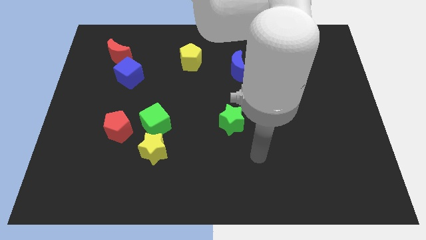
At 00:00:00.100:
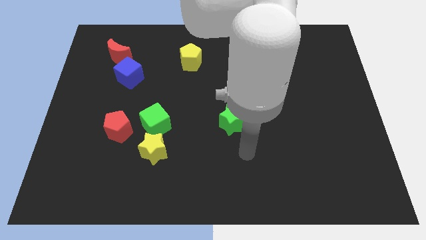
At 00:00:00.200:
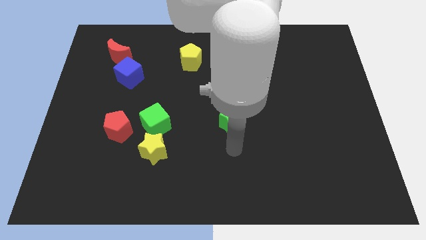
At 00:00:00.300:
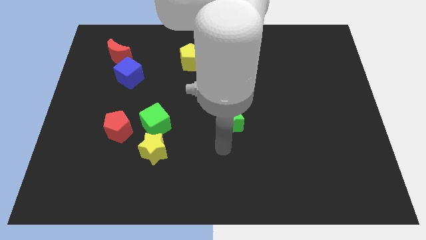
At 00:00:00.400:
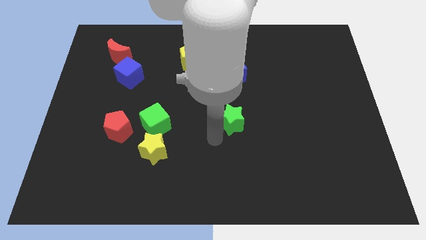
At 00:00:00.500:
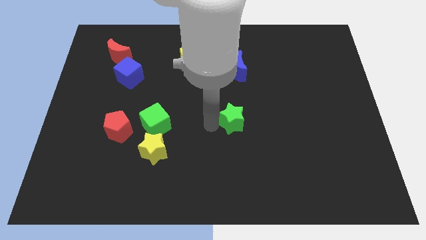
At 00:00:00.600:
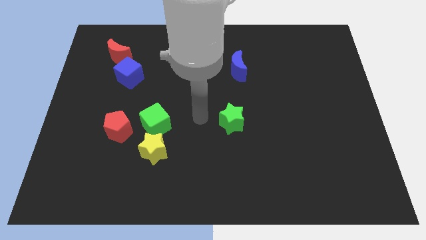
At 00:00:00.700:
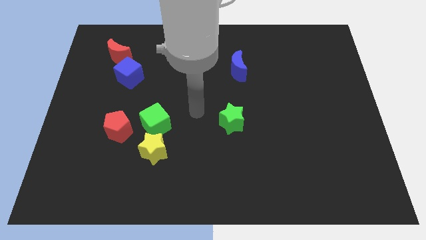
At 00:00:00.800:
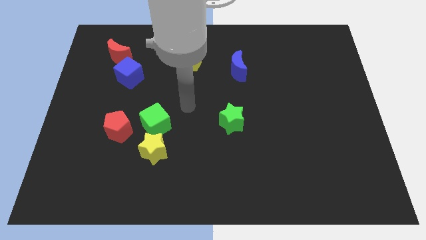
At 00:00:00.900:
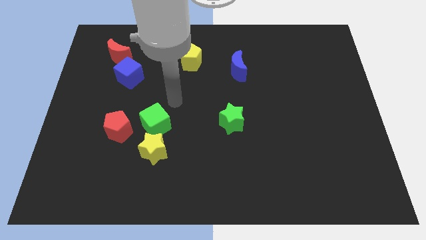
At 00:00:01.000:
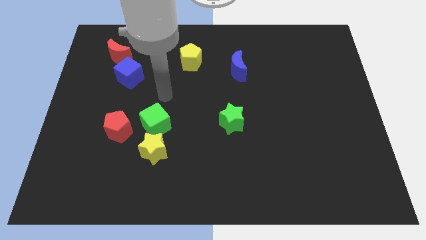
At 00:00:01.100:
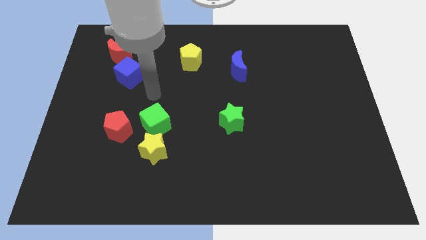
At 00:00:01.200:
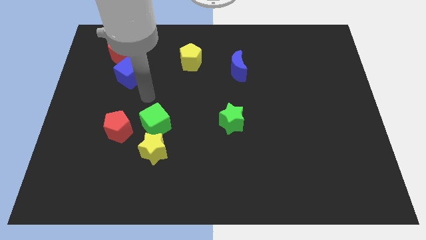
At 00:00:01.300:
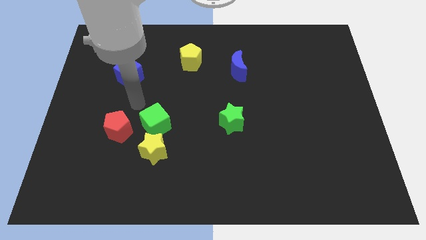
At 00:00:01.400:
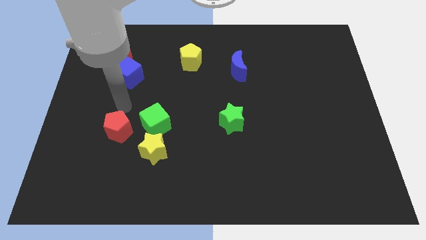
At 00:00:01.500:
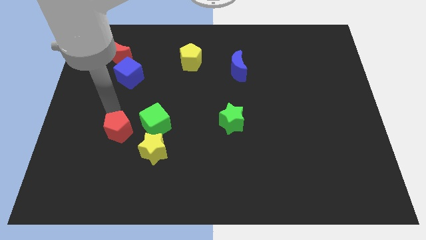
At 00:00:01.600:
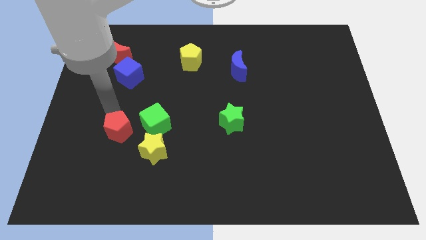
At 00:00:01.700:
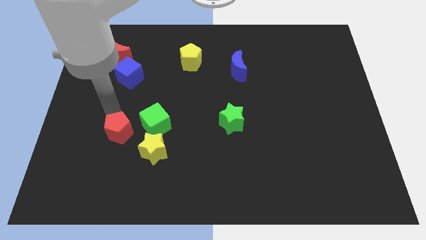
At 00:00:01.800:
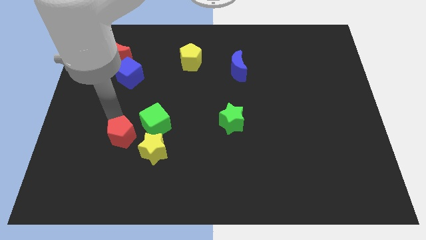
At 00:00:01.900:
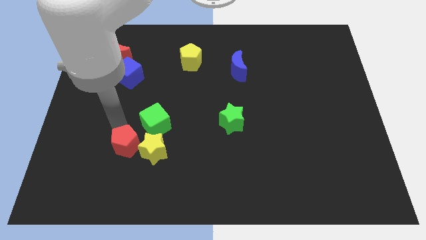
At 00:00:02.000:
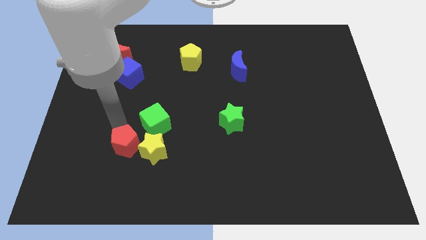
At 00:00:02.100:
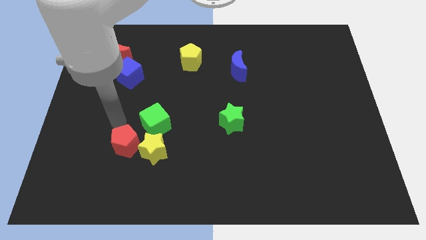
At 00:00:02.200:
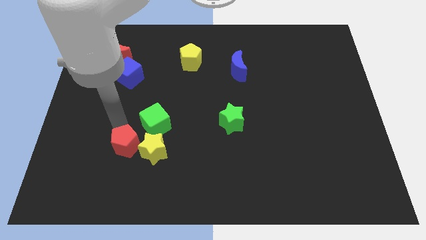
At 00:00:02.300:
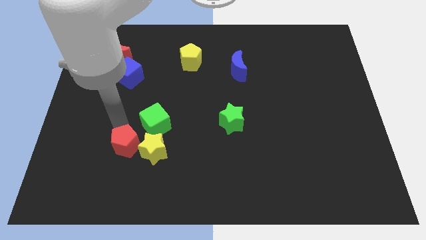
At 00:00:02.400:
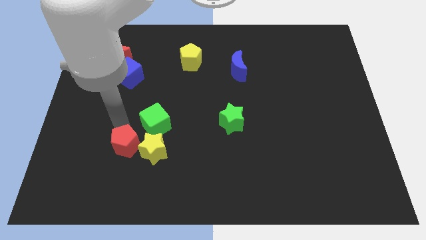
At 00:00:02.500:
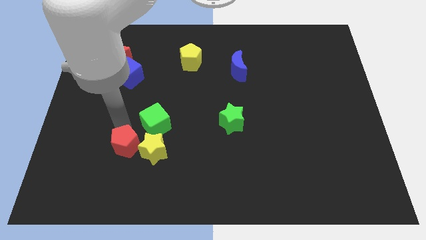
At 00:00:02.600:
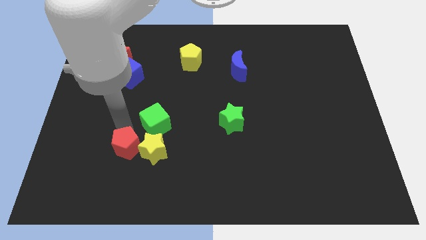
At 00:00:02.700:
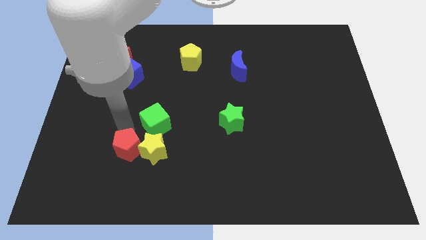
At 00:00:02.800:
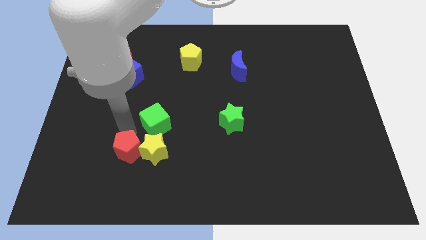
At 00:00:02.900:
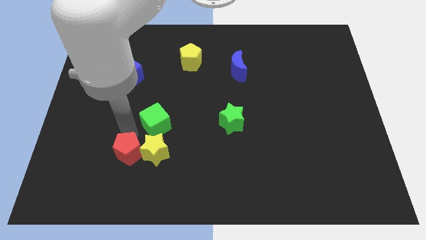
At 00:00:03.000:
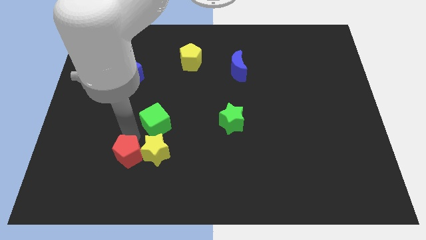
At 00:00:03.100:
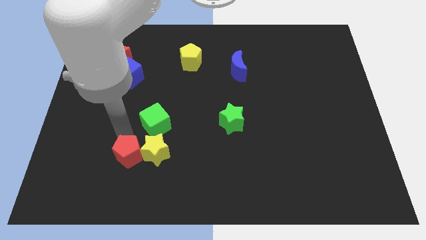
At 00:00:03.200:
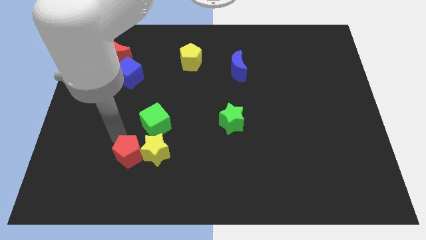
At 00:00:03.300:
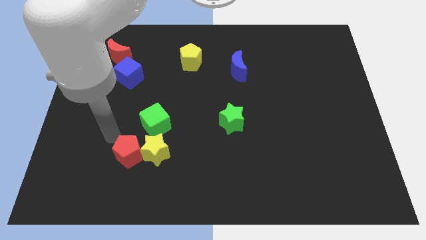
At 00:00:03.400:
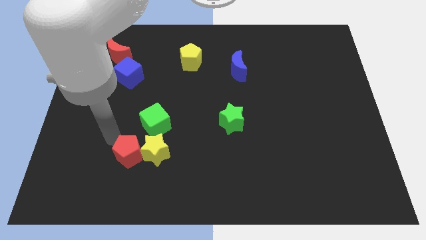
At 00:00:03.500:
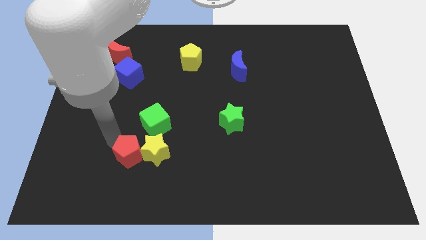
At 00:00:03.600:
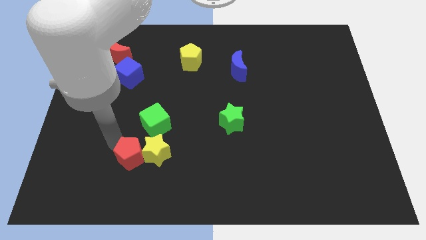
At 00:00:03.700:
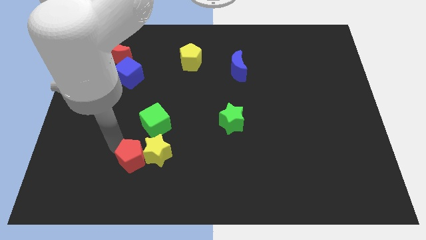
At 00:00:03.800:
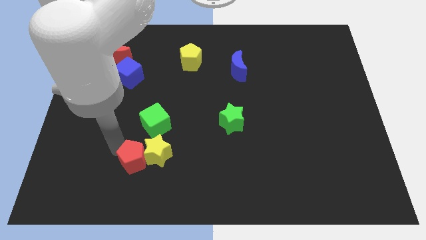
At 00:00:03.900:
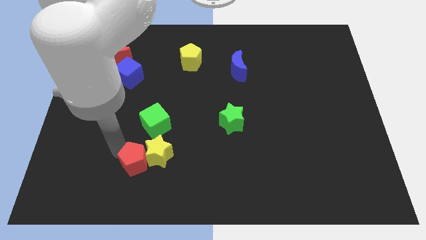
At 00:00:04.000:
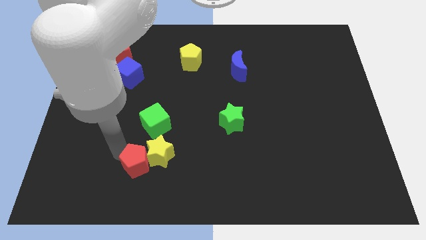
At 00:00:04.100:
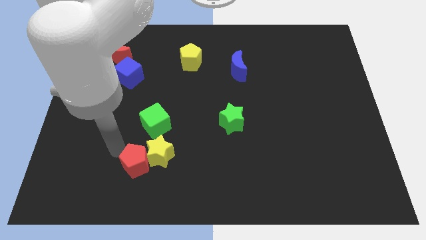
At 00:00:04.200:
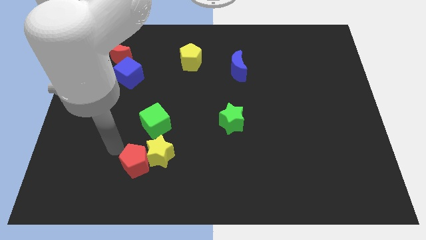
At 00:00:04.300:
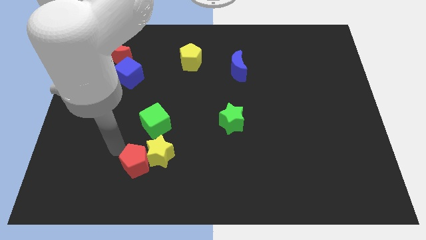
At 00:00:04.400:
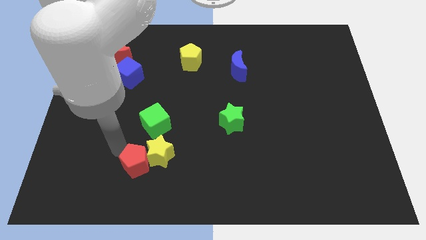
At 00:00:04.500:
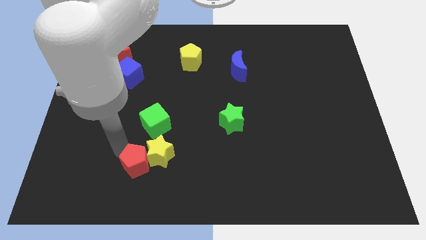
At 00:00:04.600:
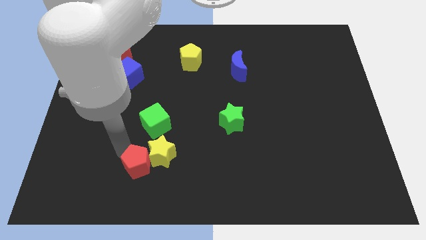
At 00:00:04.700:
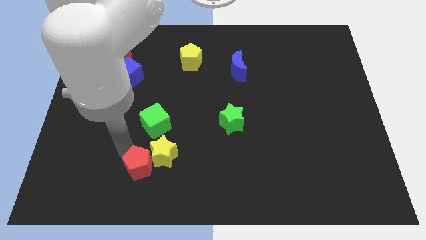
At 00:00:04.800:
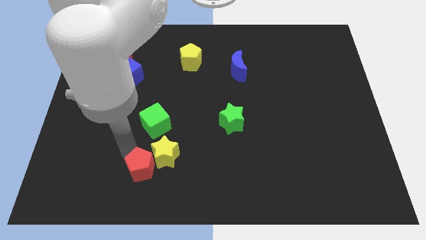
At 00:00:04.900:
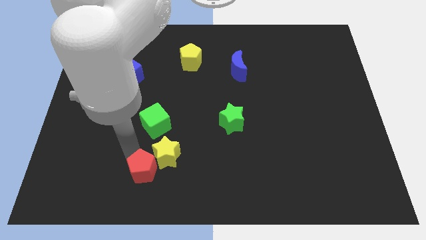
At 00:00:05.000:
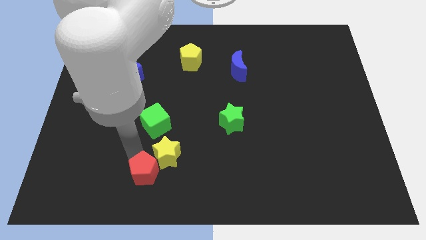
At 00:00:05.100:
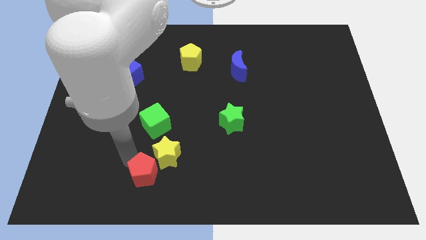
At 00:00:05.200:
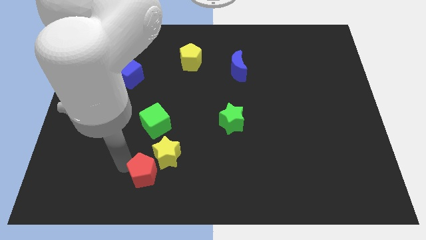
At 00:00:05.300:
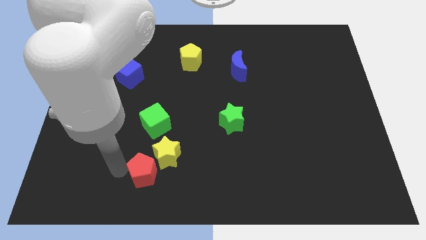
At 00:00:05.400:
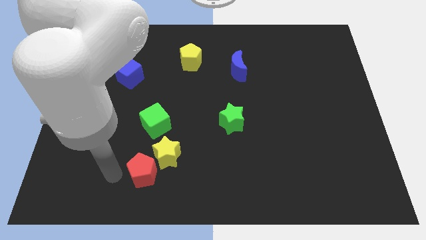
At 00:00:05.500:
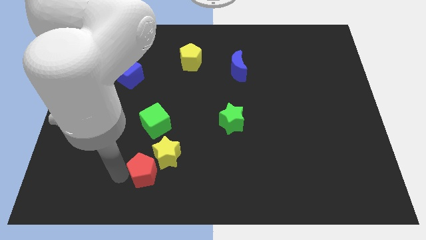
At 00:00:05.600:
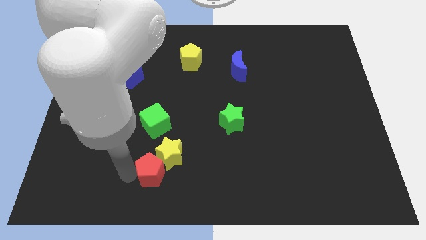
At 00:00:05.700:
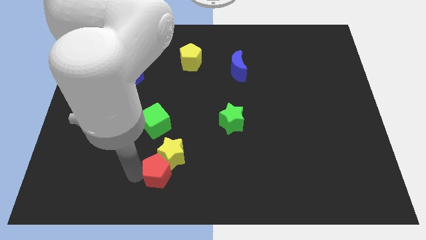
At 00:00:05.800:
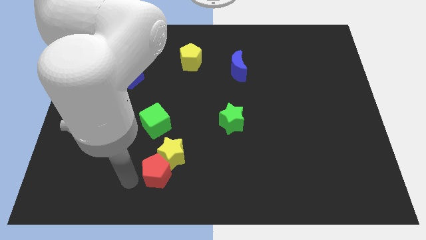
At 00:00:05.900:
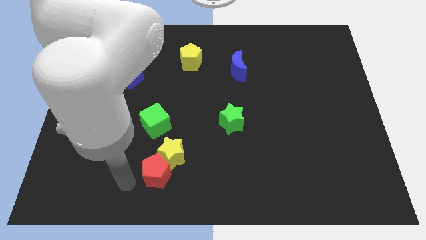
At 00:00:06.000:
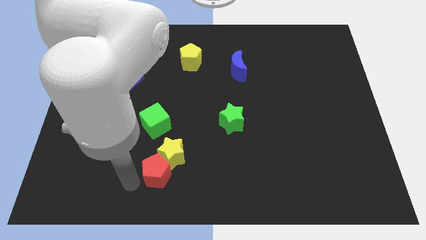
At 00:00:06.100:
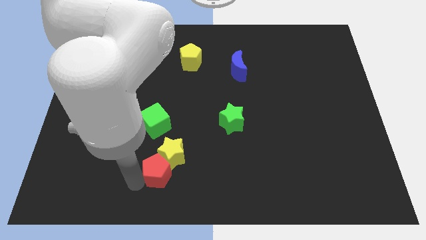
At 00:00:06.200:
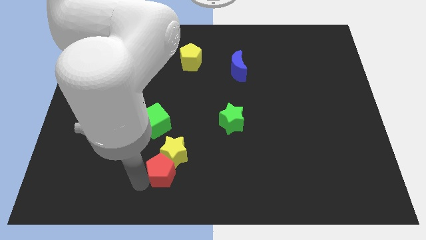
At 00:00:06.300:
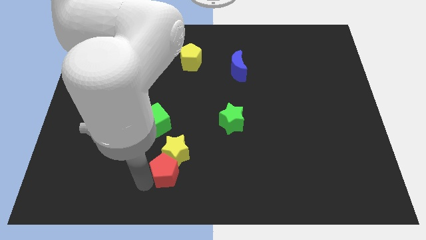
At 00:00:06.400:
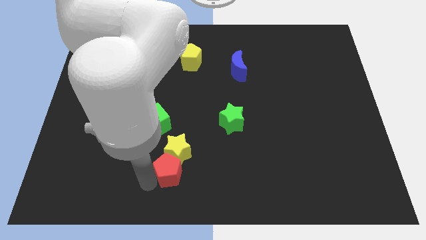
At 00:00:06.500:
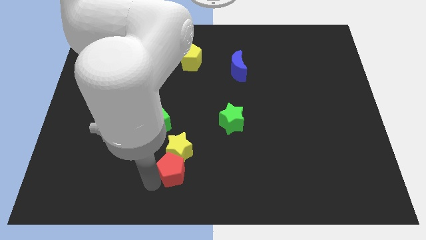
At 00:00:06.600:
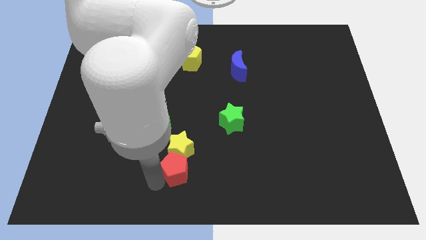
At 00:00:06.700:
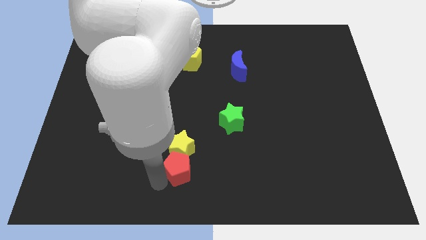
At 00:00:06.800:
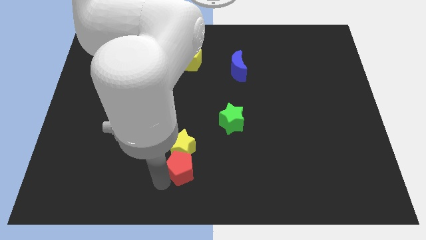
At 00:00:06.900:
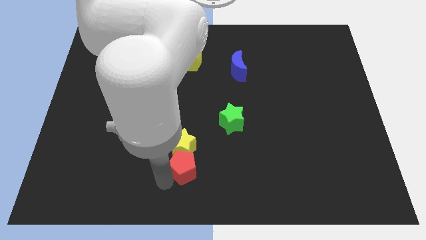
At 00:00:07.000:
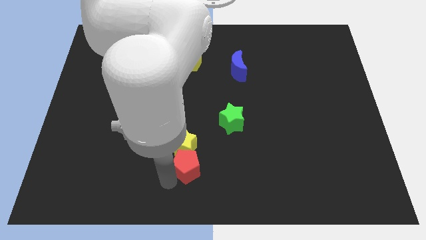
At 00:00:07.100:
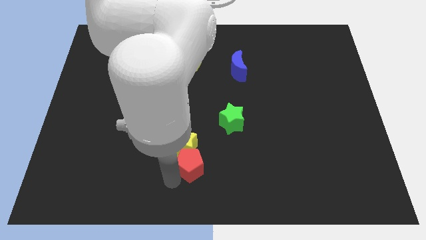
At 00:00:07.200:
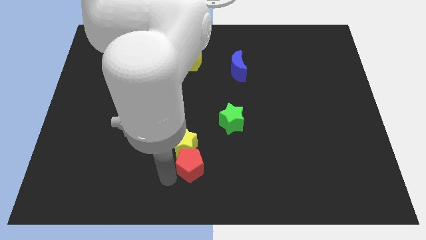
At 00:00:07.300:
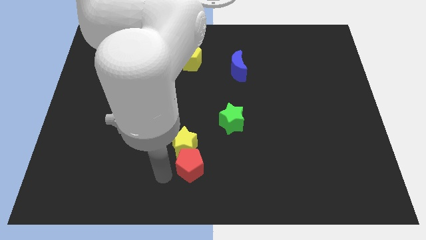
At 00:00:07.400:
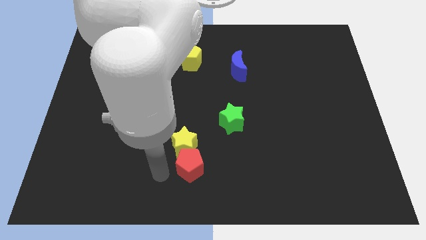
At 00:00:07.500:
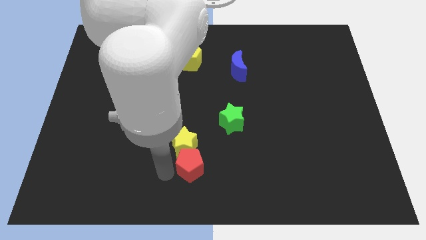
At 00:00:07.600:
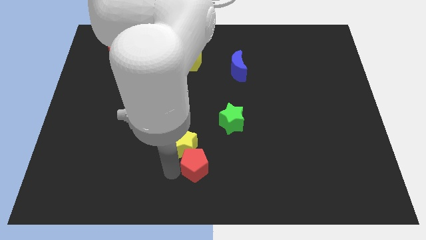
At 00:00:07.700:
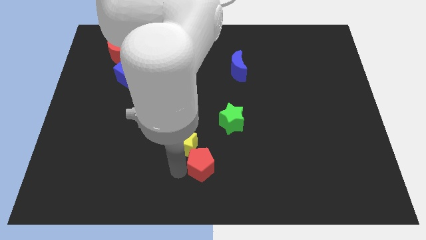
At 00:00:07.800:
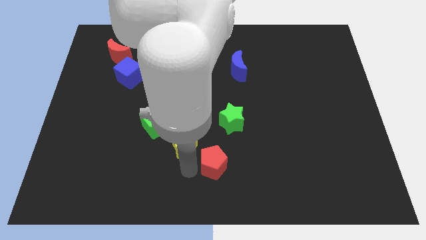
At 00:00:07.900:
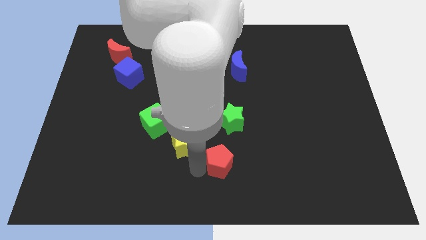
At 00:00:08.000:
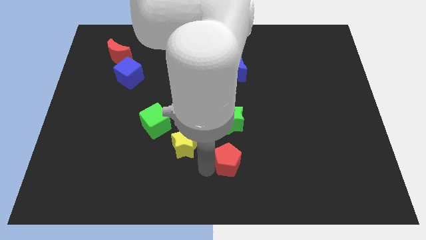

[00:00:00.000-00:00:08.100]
push the red pentagon right
